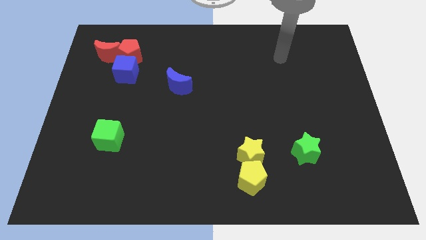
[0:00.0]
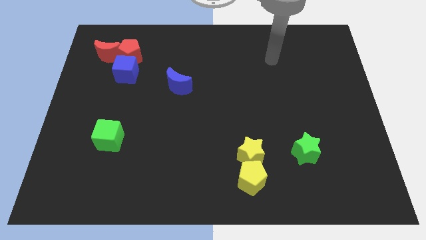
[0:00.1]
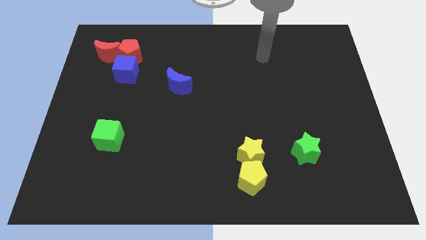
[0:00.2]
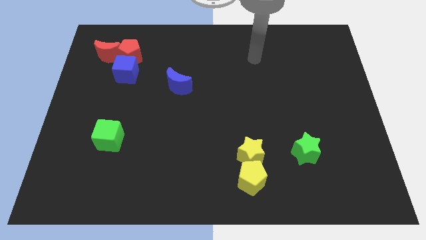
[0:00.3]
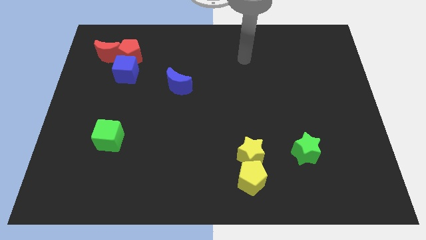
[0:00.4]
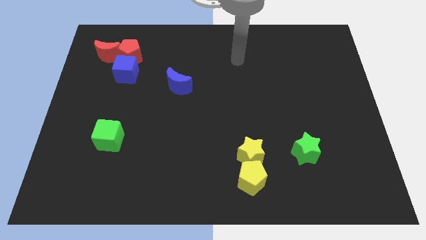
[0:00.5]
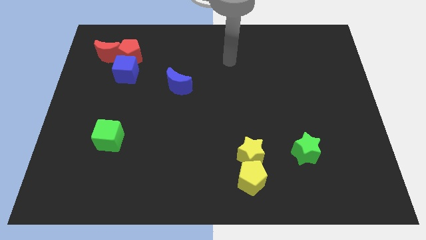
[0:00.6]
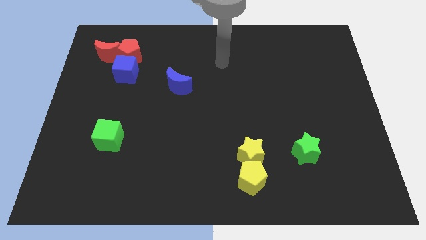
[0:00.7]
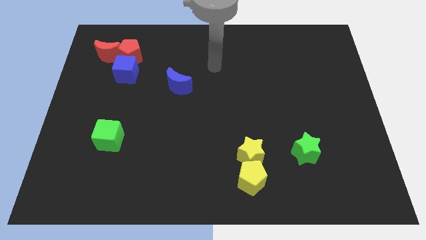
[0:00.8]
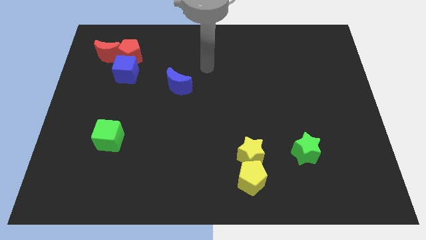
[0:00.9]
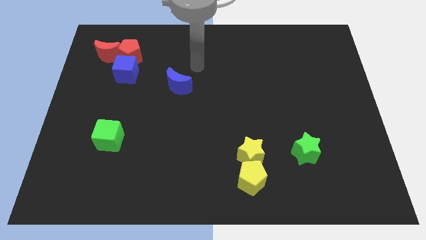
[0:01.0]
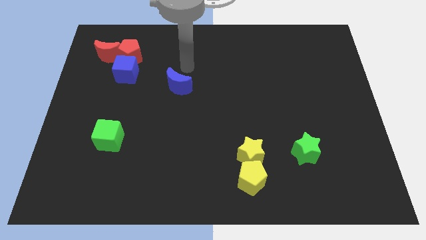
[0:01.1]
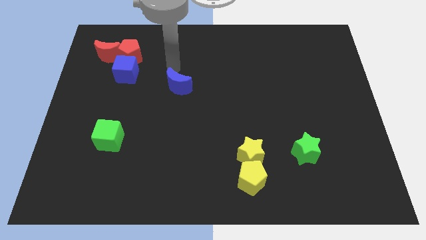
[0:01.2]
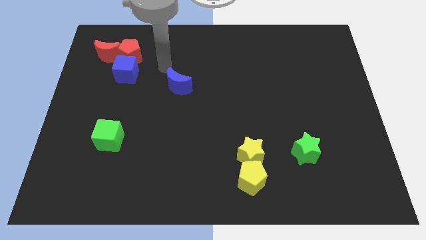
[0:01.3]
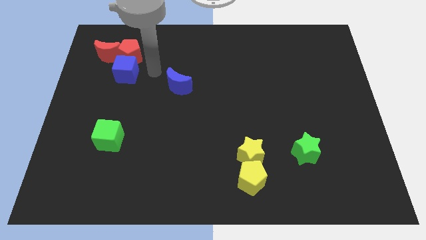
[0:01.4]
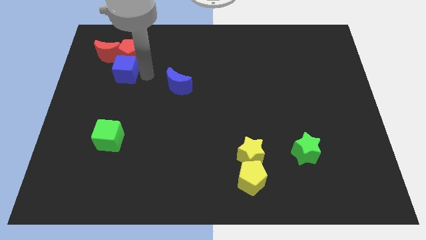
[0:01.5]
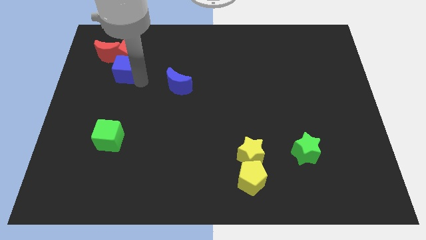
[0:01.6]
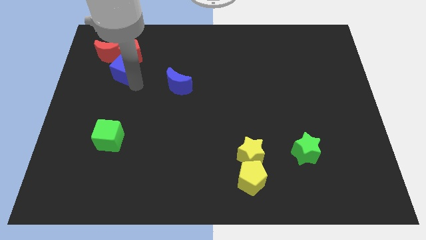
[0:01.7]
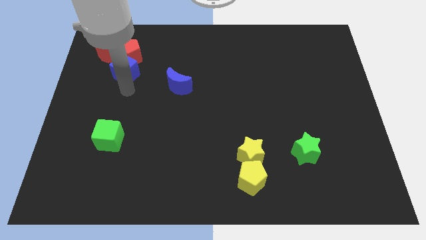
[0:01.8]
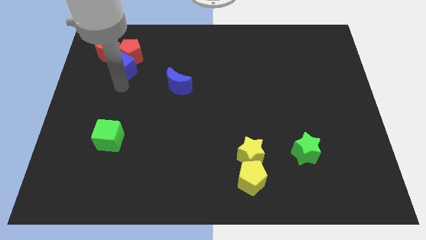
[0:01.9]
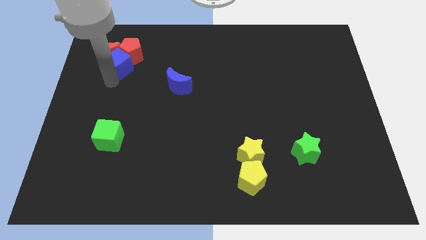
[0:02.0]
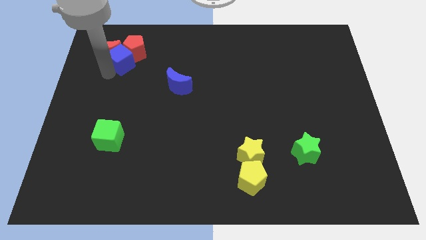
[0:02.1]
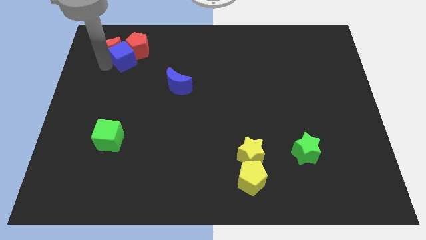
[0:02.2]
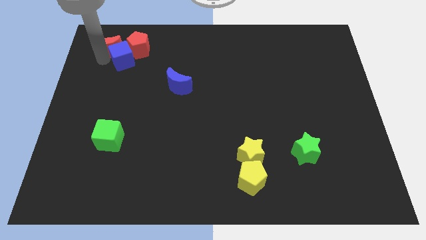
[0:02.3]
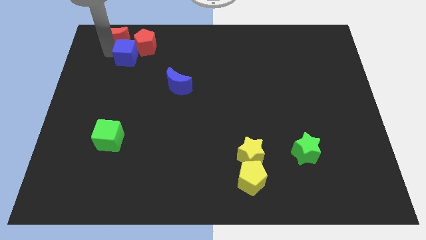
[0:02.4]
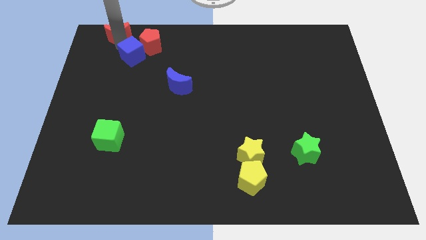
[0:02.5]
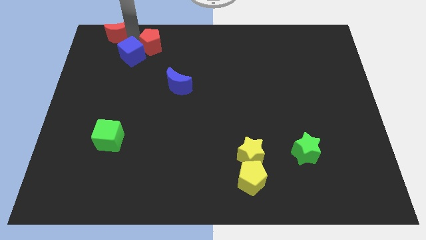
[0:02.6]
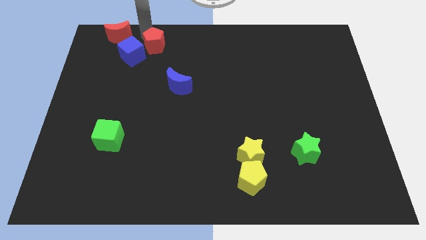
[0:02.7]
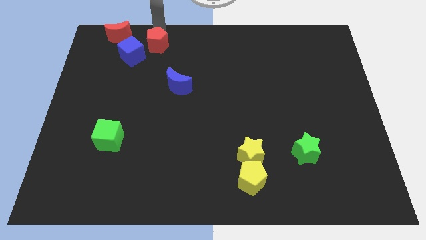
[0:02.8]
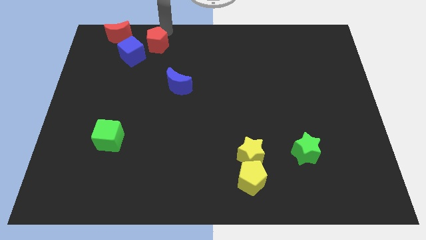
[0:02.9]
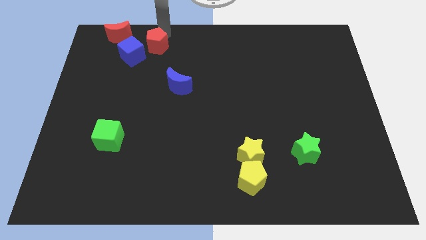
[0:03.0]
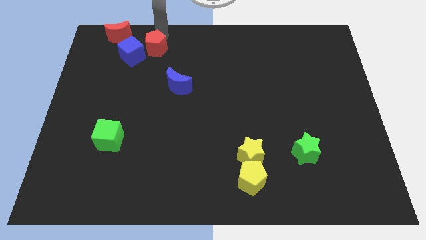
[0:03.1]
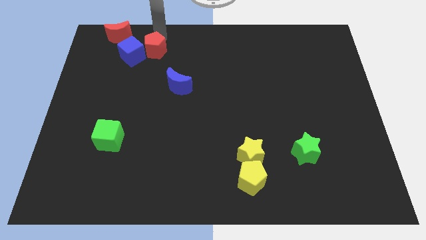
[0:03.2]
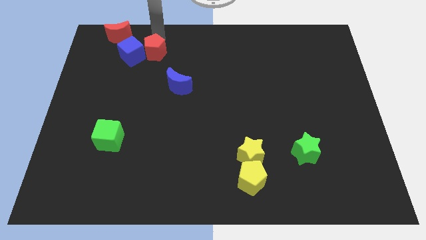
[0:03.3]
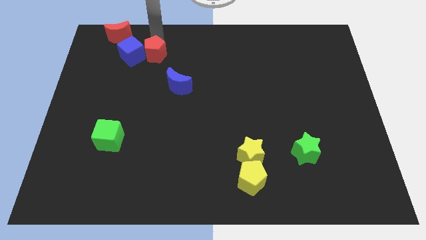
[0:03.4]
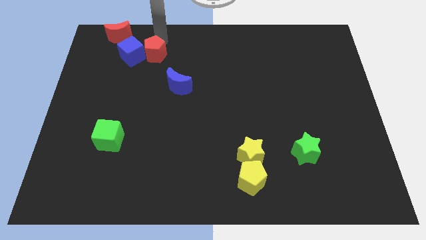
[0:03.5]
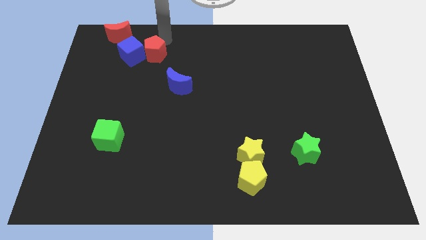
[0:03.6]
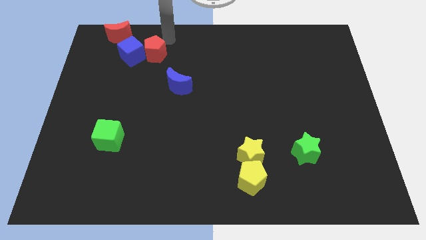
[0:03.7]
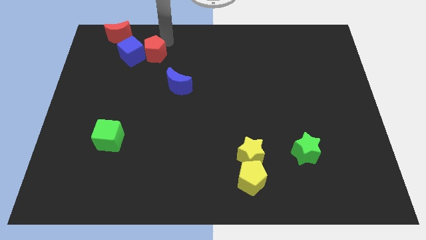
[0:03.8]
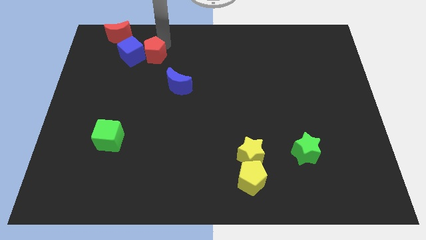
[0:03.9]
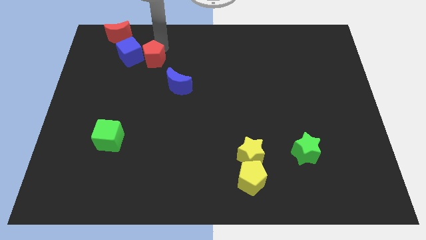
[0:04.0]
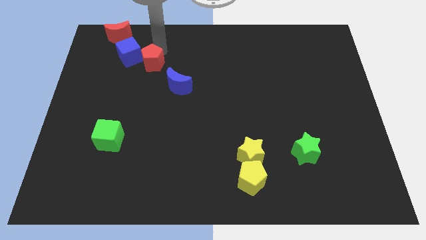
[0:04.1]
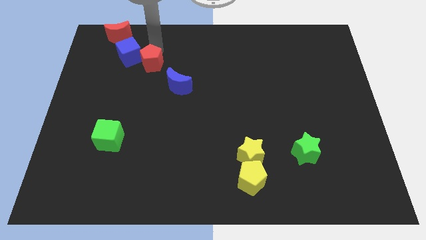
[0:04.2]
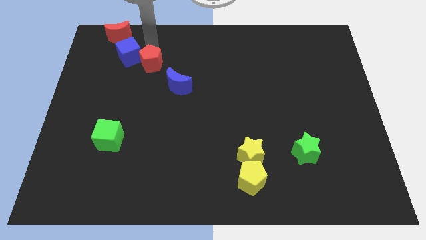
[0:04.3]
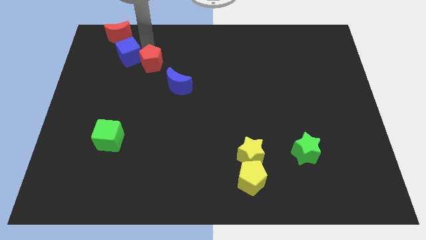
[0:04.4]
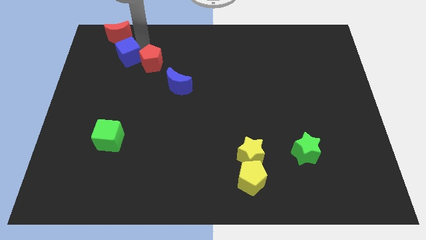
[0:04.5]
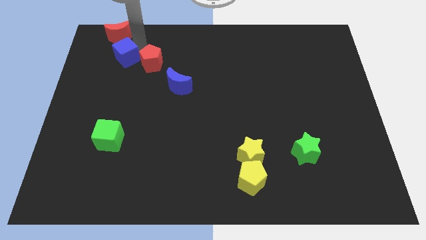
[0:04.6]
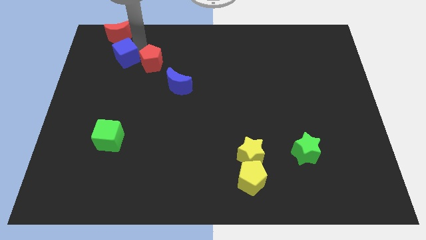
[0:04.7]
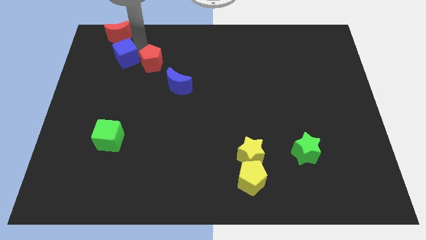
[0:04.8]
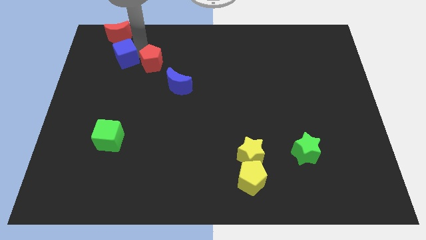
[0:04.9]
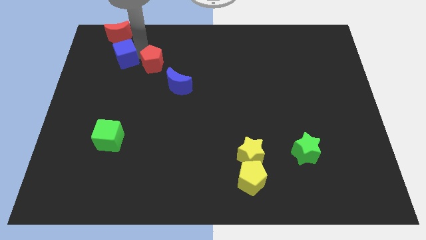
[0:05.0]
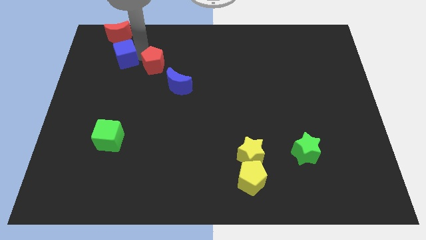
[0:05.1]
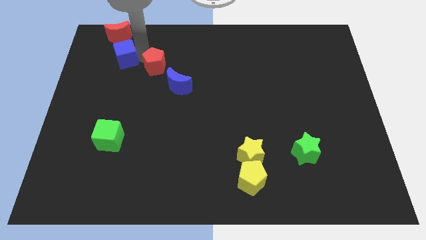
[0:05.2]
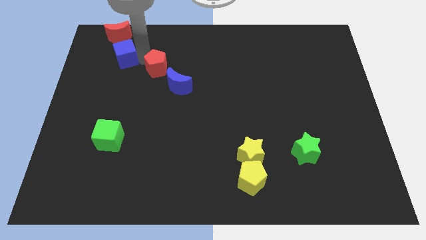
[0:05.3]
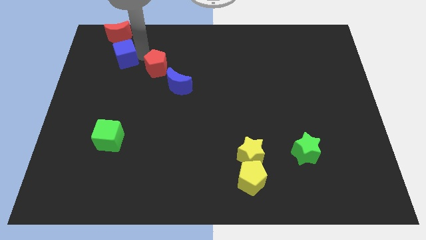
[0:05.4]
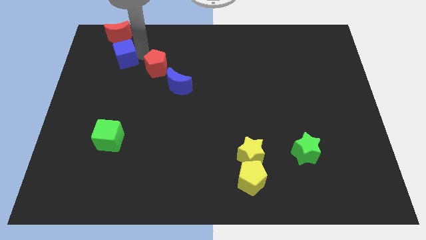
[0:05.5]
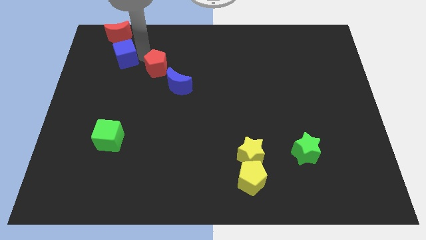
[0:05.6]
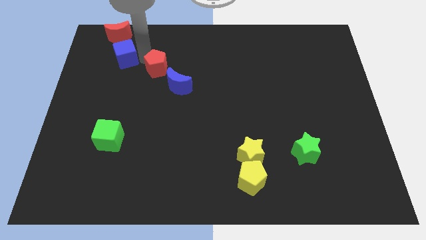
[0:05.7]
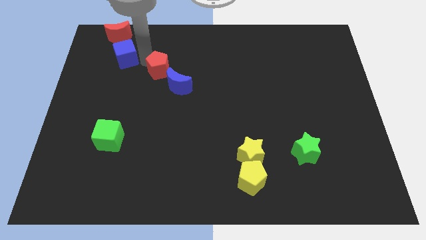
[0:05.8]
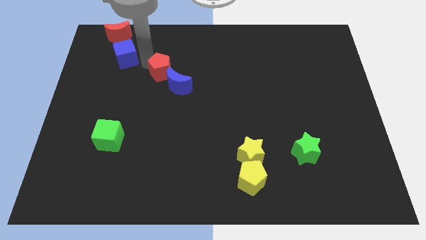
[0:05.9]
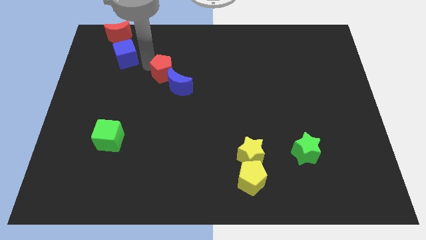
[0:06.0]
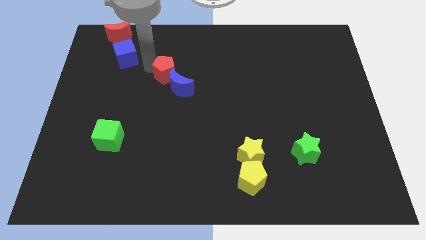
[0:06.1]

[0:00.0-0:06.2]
push the red pentagon next to the blue moon

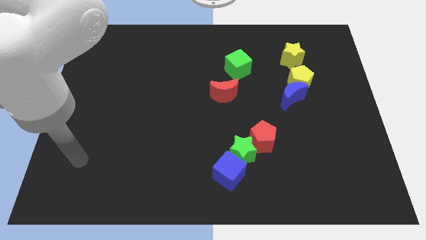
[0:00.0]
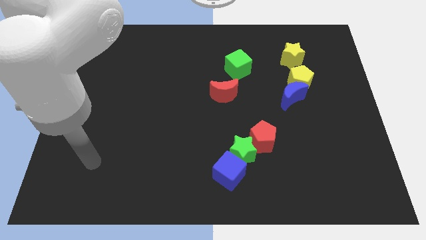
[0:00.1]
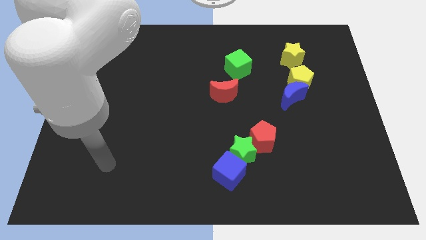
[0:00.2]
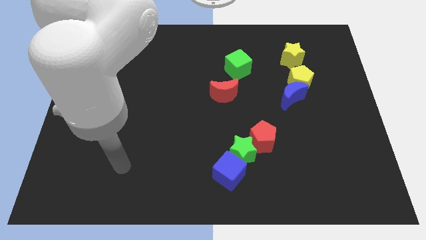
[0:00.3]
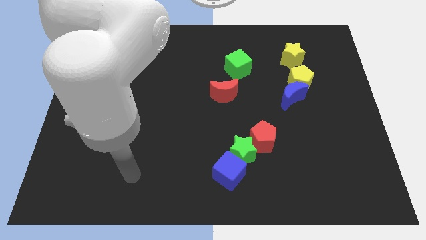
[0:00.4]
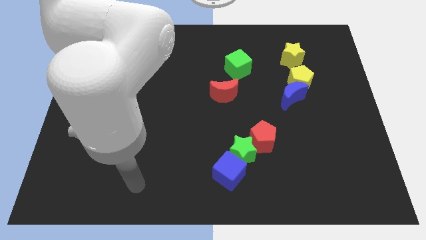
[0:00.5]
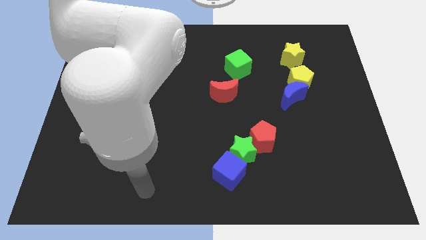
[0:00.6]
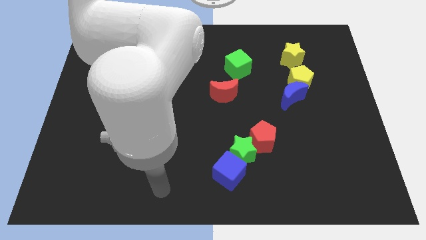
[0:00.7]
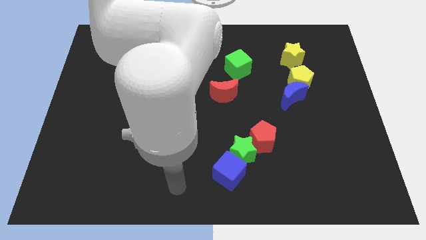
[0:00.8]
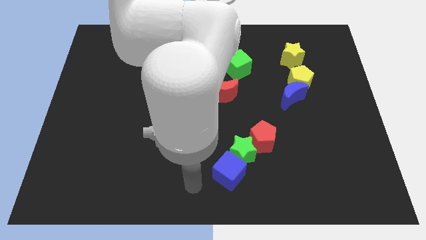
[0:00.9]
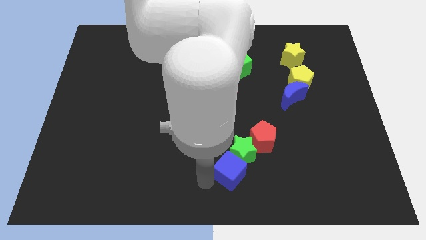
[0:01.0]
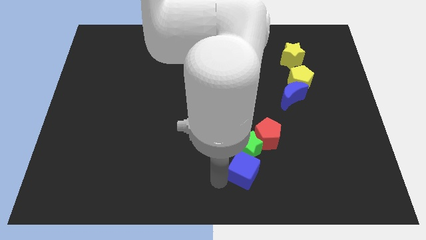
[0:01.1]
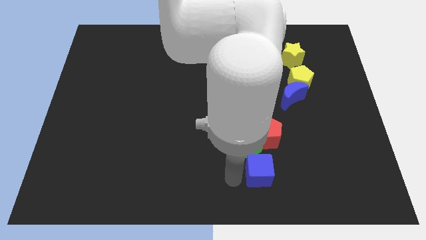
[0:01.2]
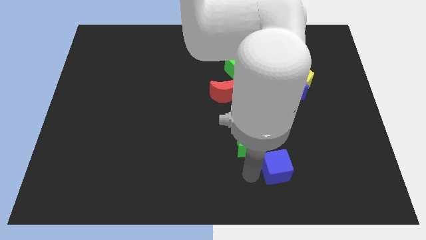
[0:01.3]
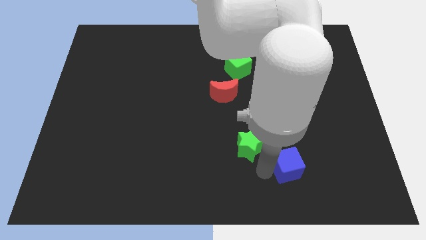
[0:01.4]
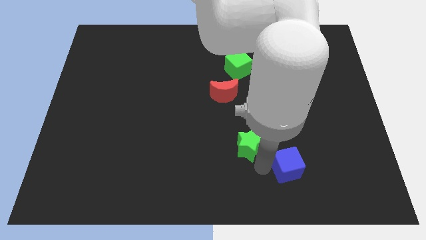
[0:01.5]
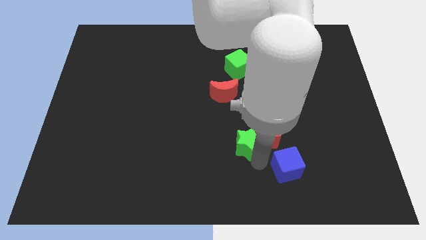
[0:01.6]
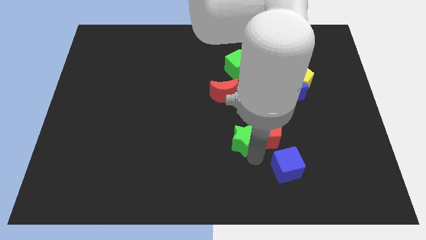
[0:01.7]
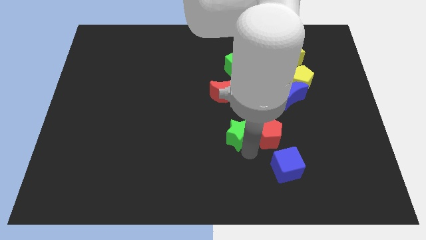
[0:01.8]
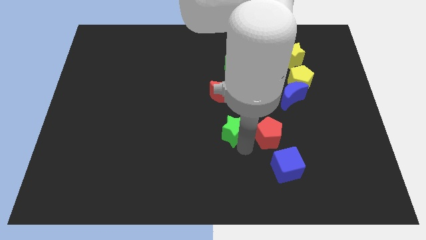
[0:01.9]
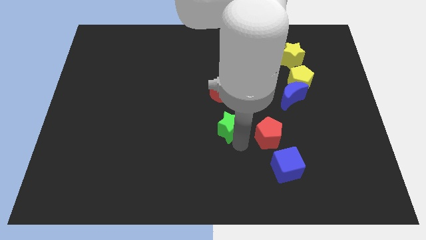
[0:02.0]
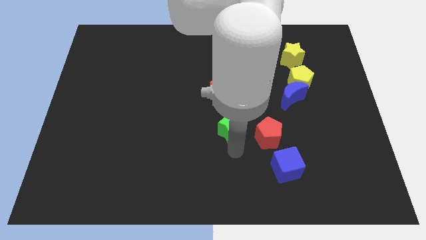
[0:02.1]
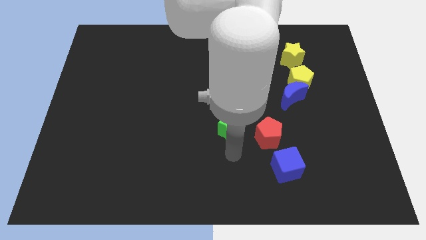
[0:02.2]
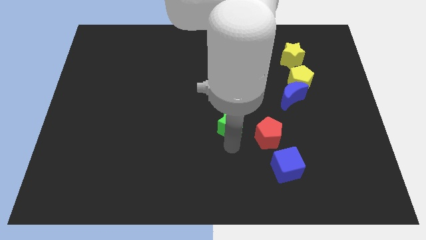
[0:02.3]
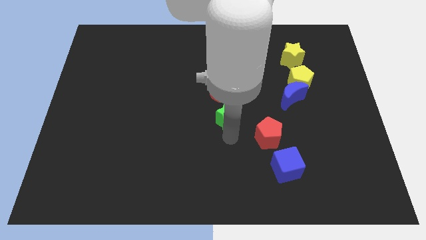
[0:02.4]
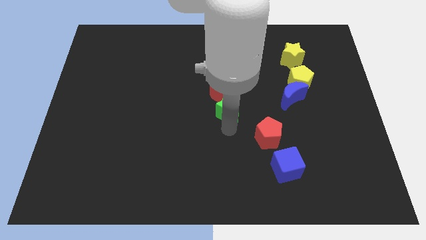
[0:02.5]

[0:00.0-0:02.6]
put the green star towards the red moon
